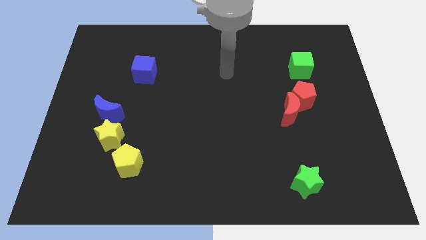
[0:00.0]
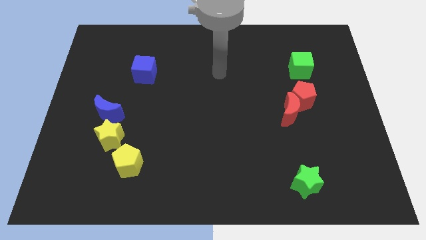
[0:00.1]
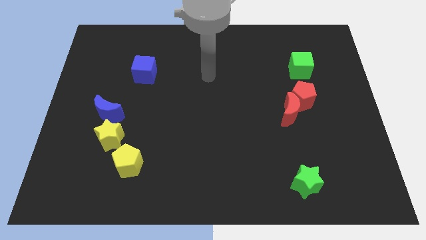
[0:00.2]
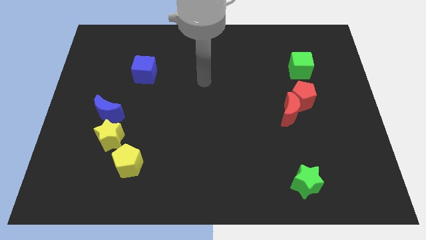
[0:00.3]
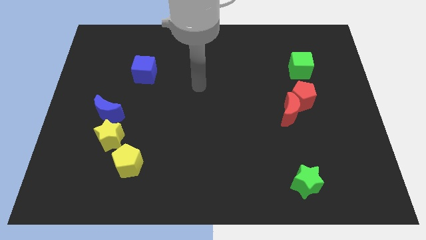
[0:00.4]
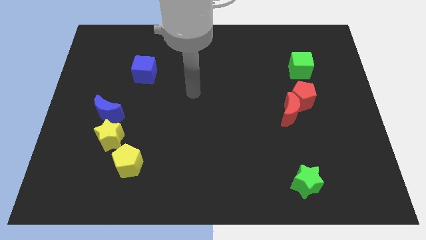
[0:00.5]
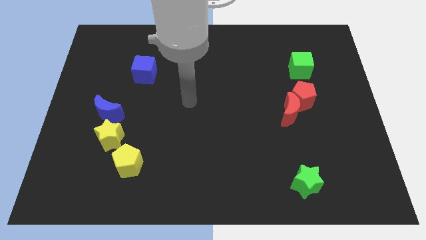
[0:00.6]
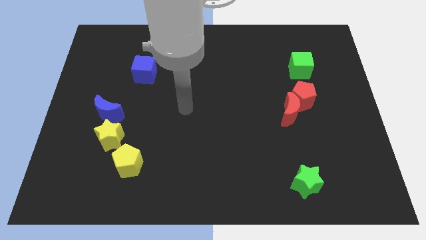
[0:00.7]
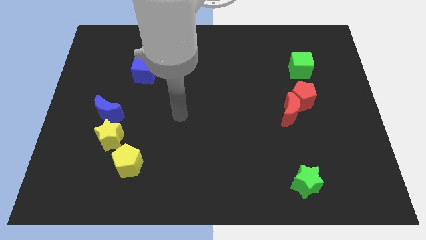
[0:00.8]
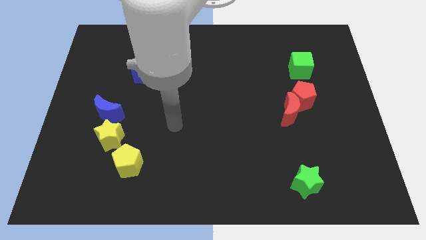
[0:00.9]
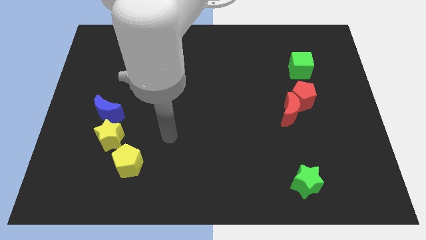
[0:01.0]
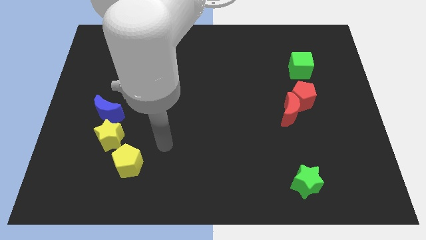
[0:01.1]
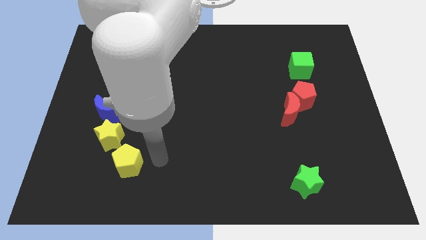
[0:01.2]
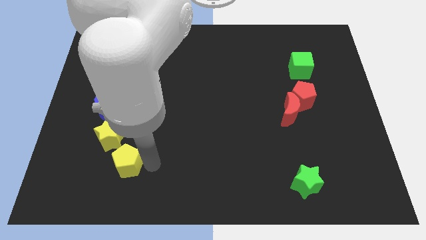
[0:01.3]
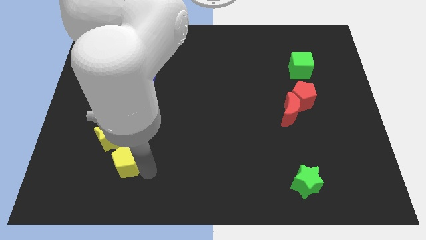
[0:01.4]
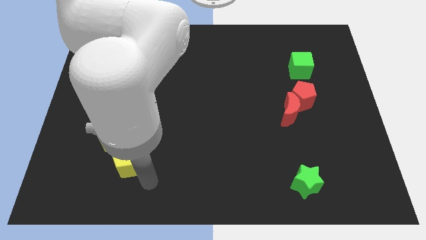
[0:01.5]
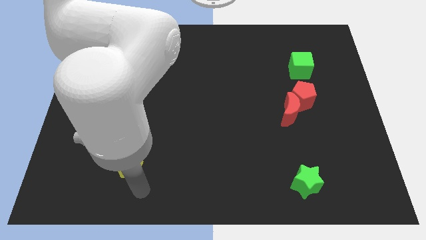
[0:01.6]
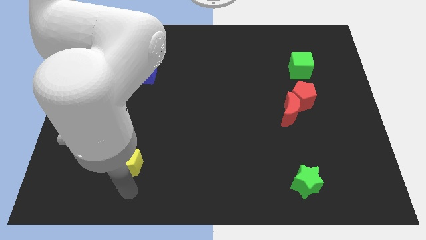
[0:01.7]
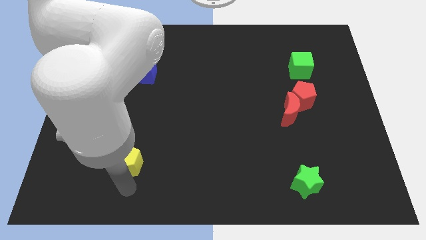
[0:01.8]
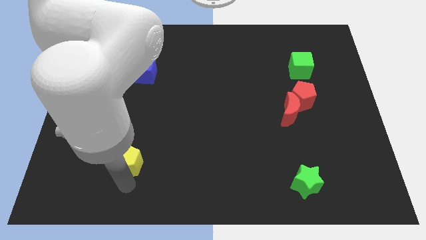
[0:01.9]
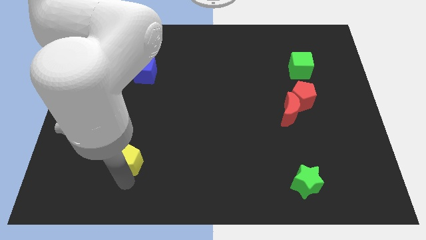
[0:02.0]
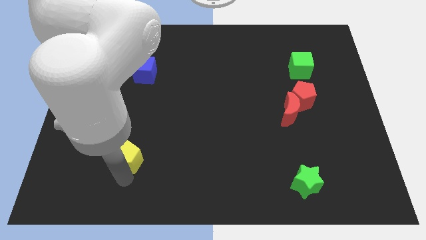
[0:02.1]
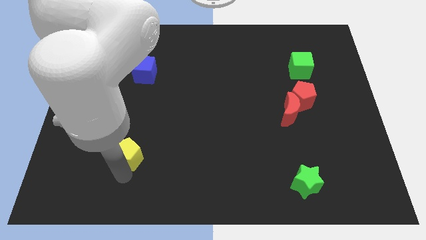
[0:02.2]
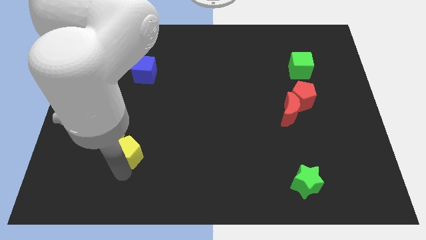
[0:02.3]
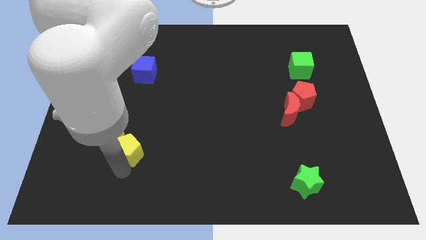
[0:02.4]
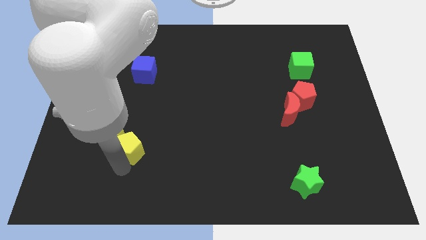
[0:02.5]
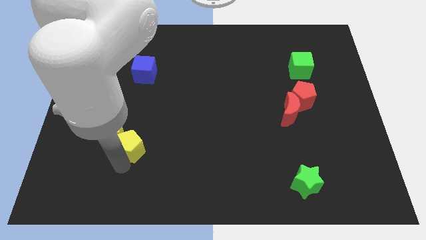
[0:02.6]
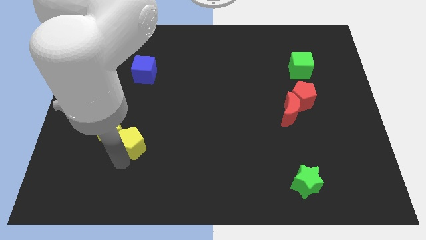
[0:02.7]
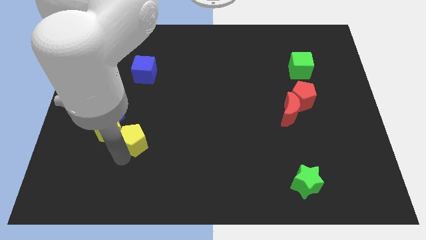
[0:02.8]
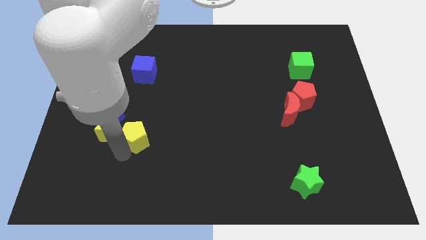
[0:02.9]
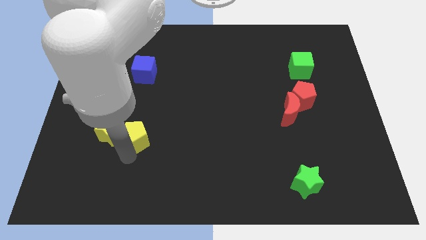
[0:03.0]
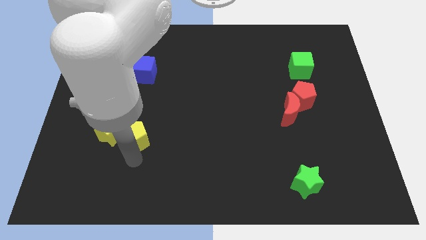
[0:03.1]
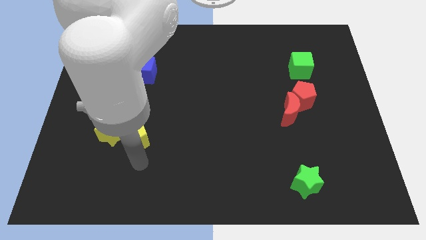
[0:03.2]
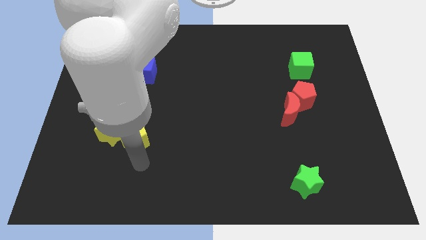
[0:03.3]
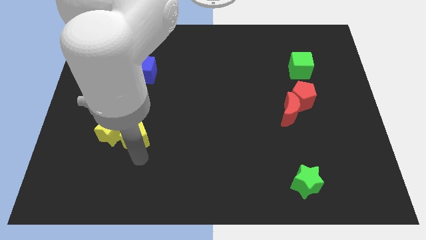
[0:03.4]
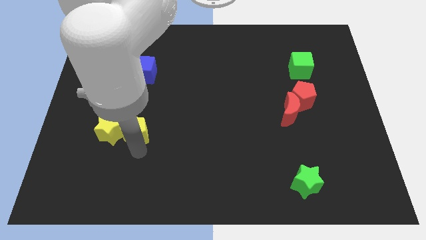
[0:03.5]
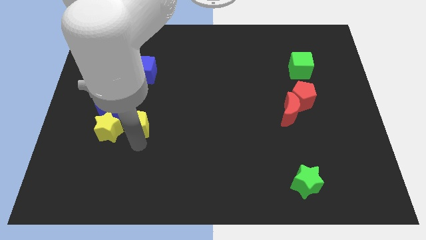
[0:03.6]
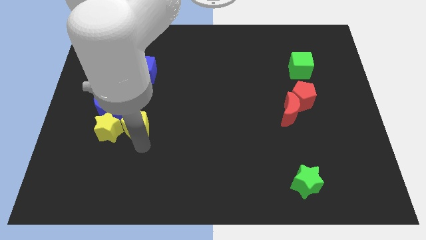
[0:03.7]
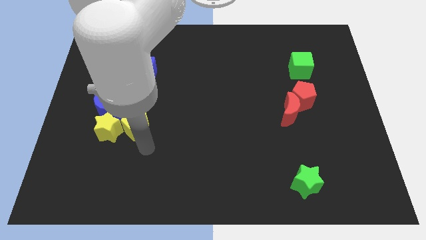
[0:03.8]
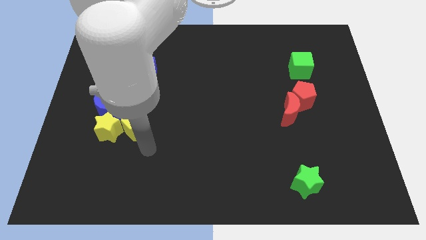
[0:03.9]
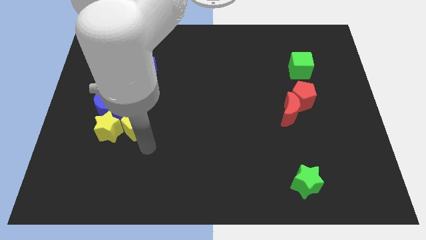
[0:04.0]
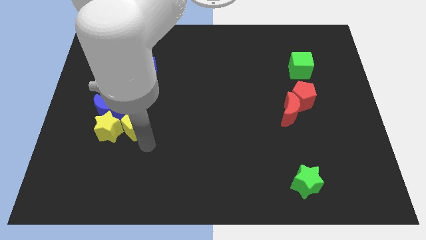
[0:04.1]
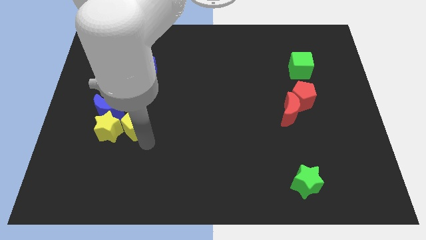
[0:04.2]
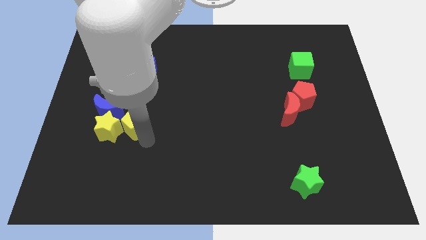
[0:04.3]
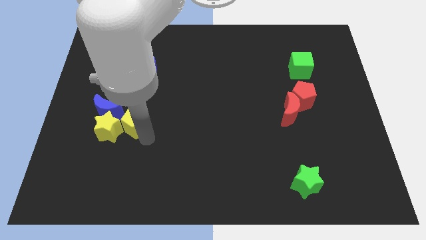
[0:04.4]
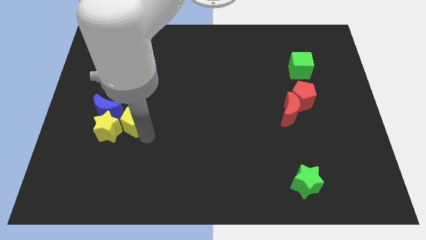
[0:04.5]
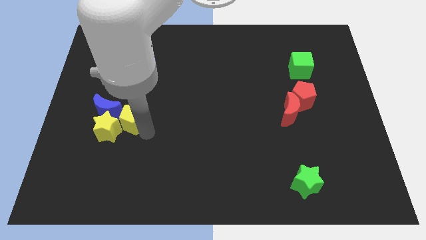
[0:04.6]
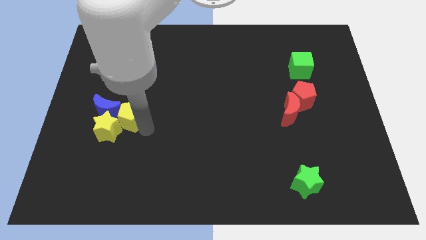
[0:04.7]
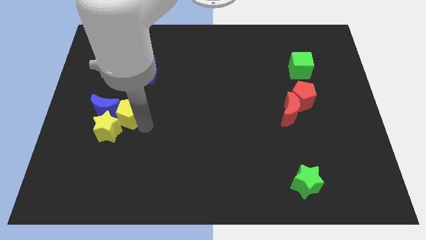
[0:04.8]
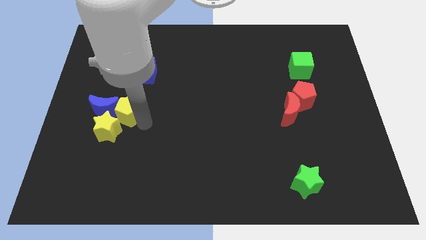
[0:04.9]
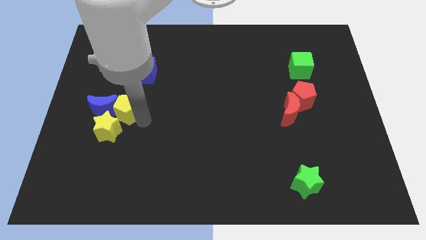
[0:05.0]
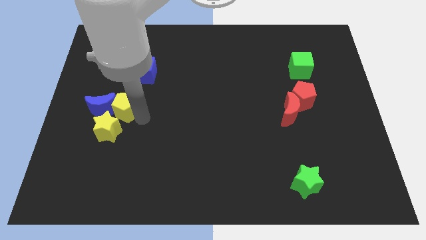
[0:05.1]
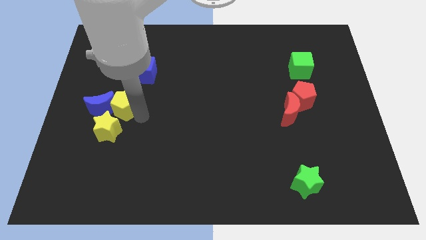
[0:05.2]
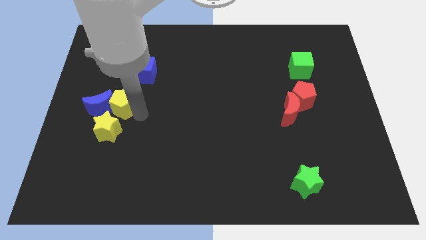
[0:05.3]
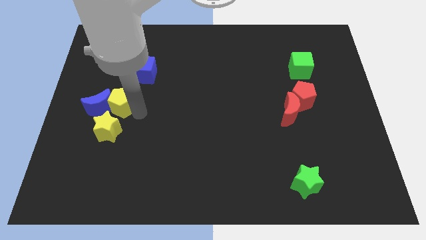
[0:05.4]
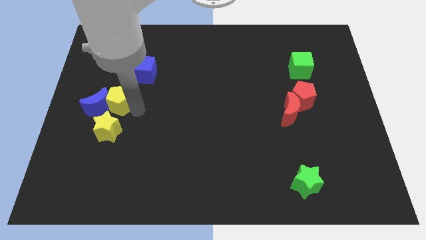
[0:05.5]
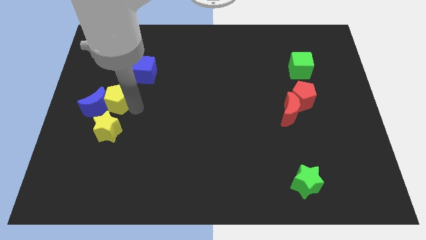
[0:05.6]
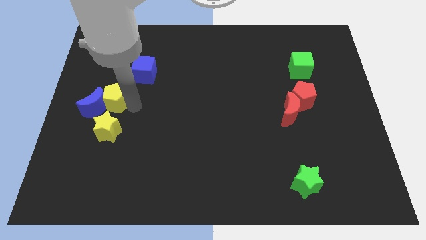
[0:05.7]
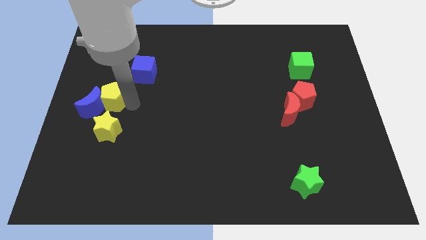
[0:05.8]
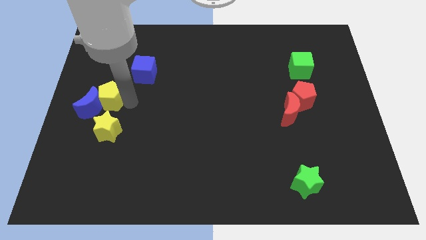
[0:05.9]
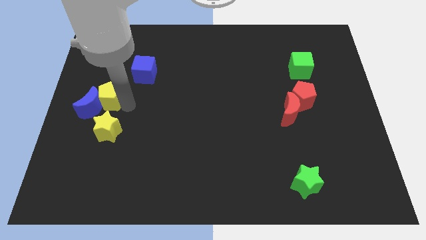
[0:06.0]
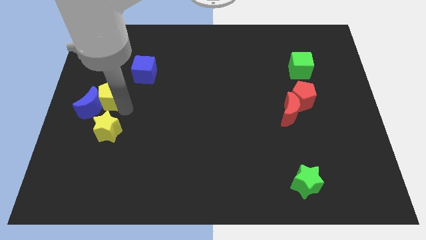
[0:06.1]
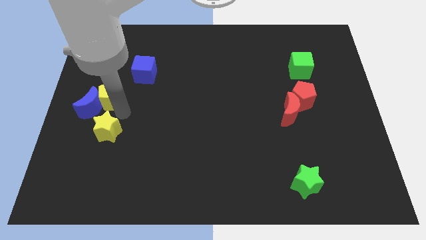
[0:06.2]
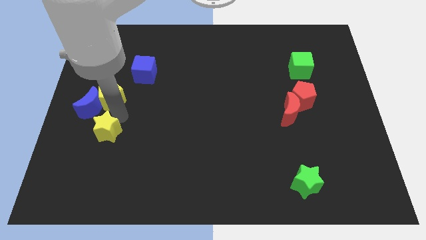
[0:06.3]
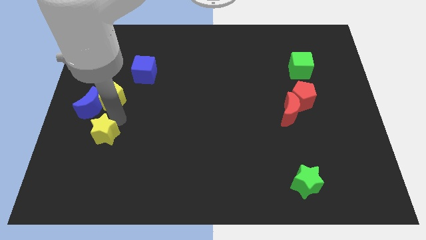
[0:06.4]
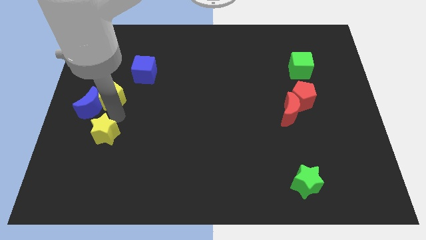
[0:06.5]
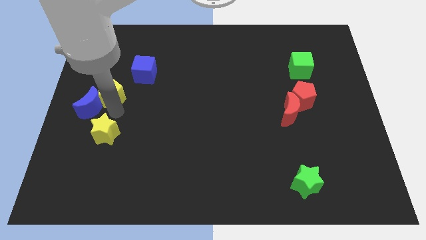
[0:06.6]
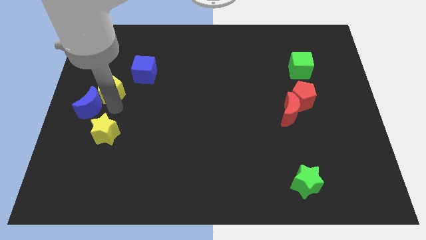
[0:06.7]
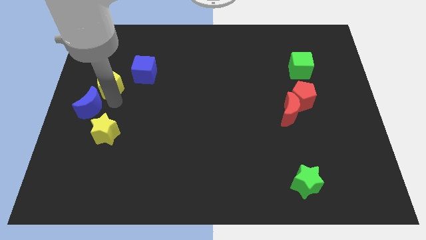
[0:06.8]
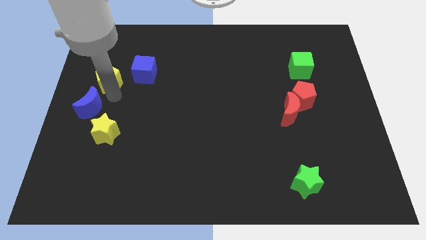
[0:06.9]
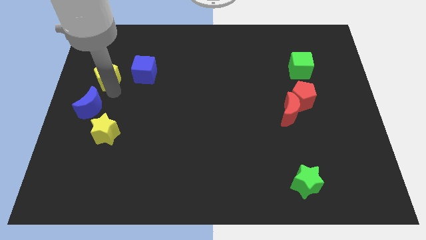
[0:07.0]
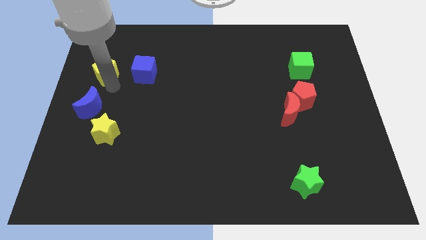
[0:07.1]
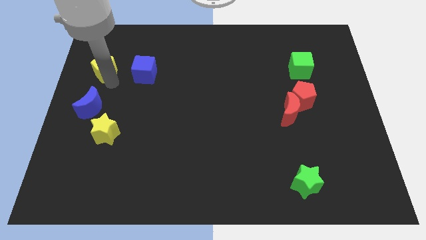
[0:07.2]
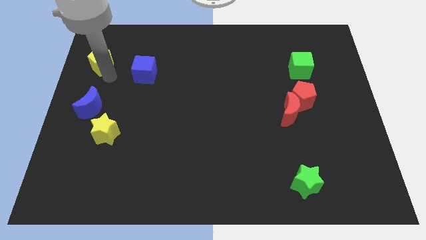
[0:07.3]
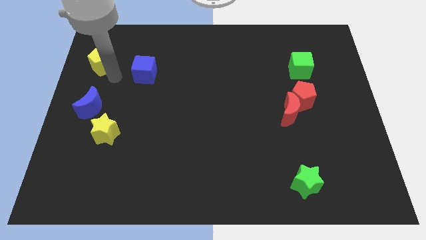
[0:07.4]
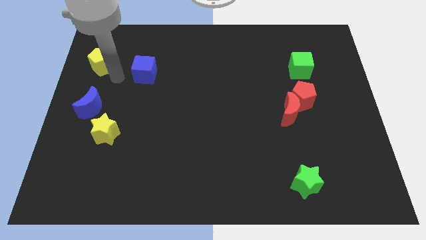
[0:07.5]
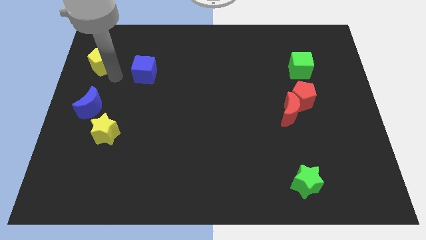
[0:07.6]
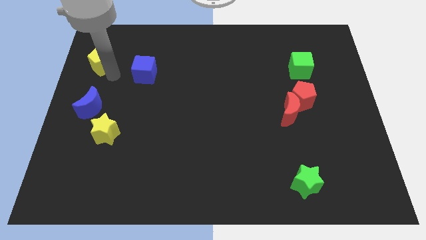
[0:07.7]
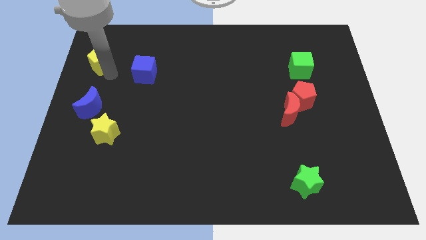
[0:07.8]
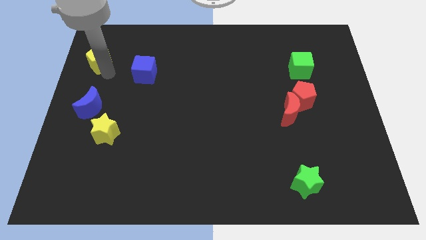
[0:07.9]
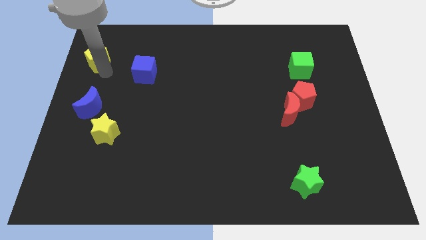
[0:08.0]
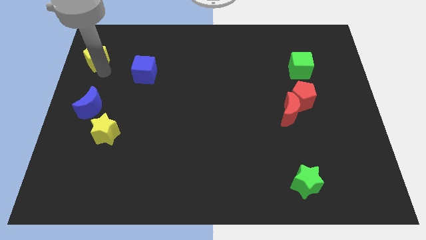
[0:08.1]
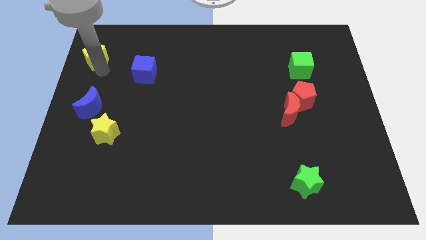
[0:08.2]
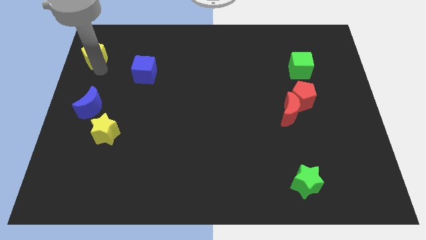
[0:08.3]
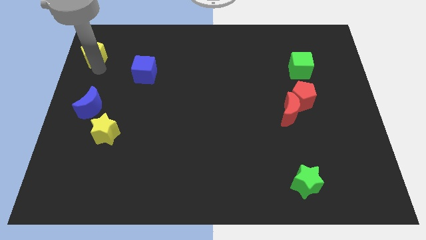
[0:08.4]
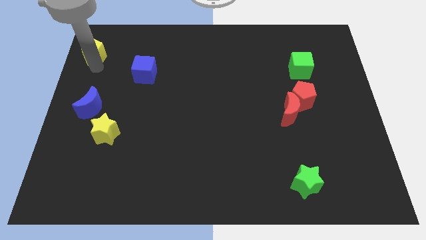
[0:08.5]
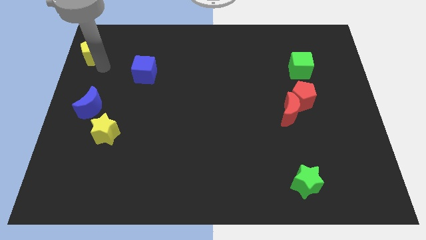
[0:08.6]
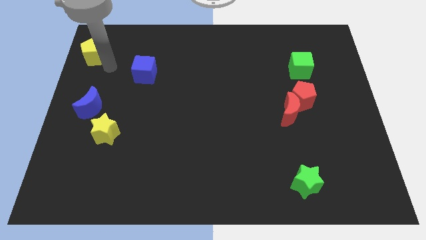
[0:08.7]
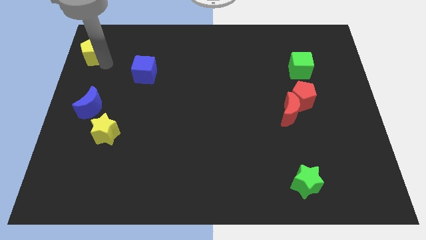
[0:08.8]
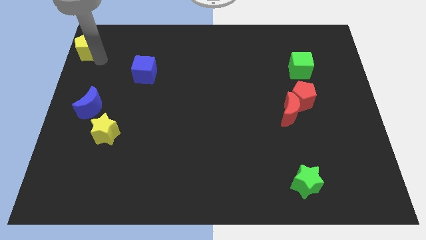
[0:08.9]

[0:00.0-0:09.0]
put the yellow pentagon to the top left
